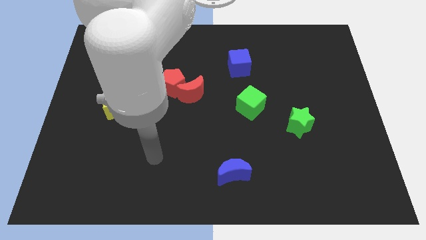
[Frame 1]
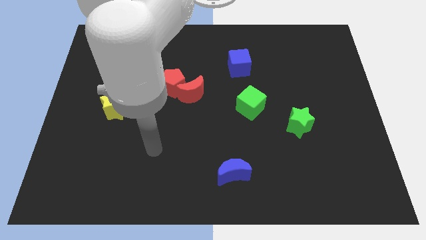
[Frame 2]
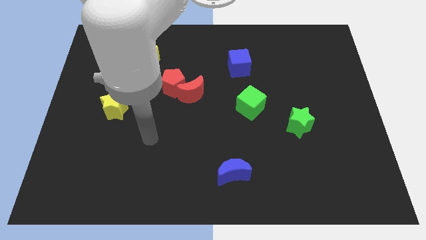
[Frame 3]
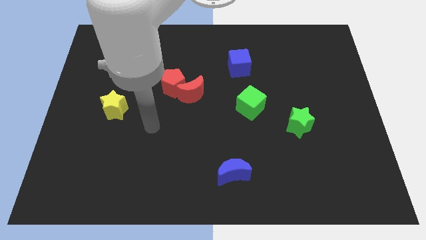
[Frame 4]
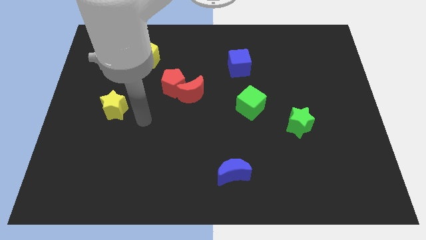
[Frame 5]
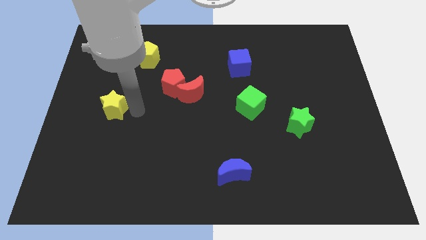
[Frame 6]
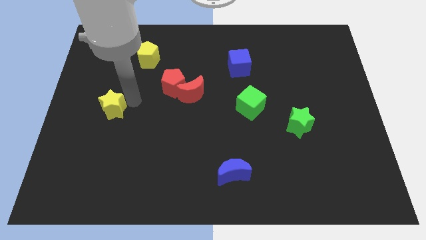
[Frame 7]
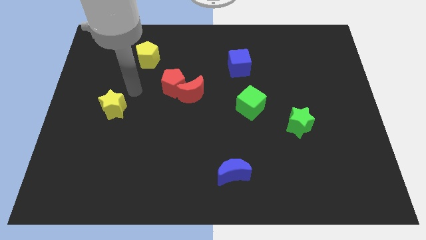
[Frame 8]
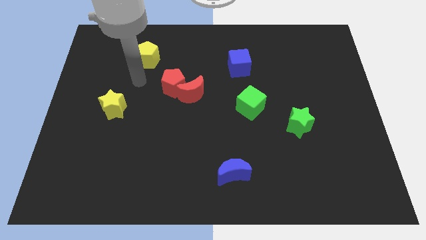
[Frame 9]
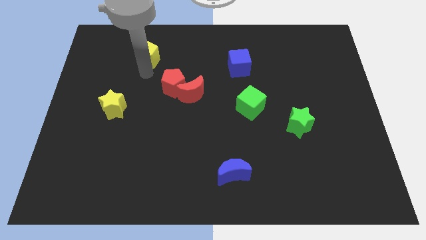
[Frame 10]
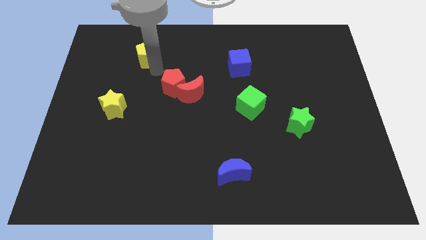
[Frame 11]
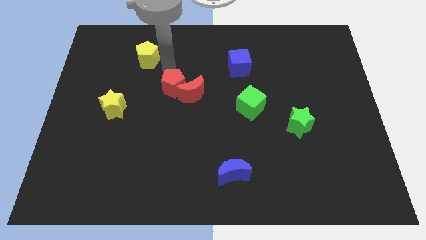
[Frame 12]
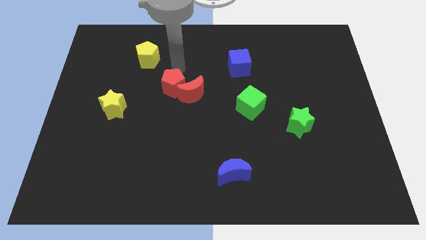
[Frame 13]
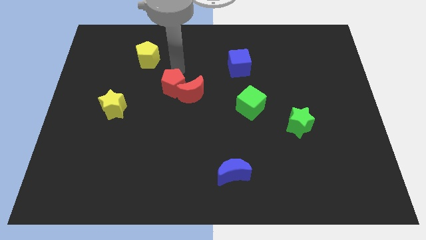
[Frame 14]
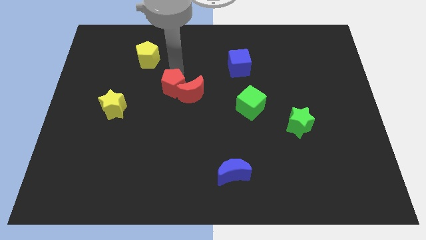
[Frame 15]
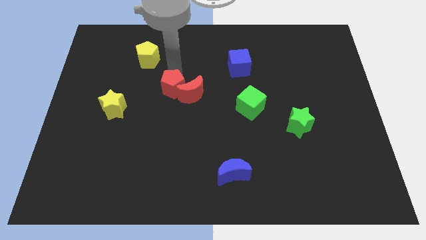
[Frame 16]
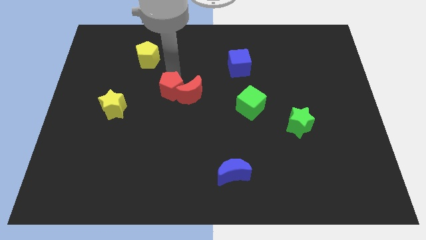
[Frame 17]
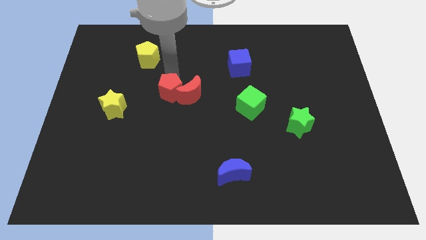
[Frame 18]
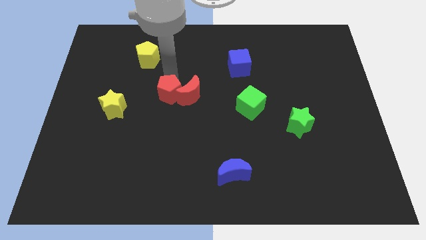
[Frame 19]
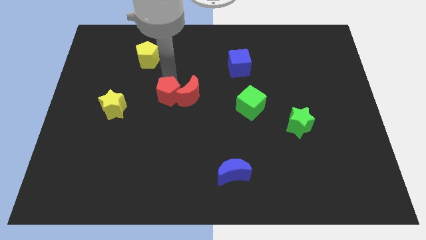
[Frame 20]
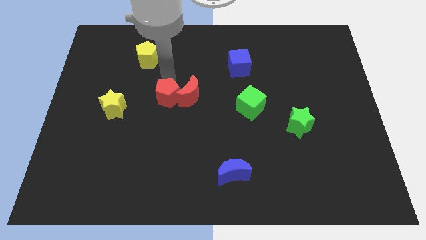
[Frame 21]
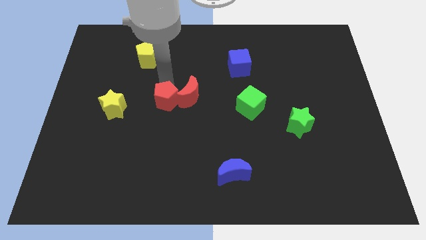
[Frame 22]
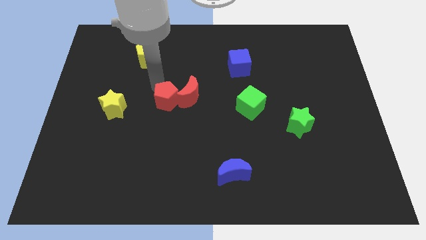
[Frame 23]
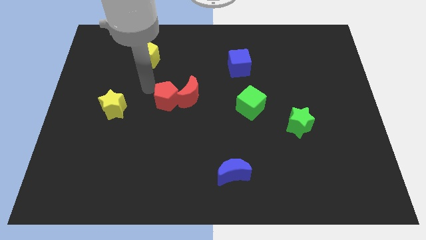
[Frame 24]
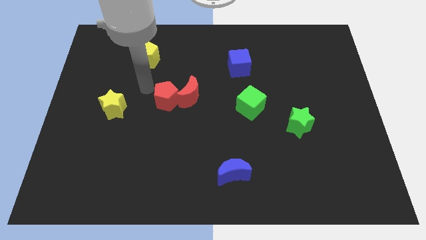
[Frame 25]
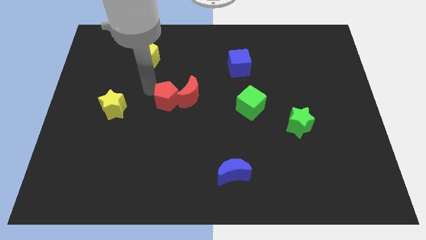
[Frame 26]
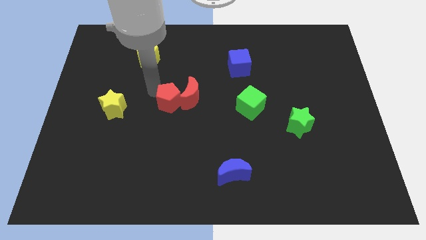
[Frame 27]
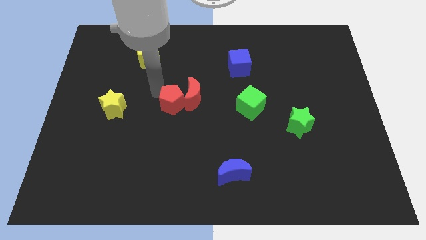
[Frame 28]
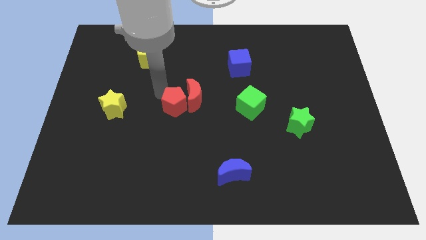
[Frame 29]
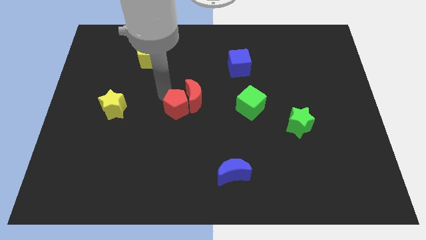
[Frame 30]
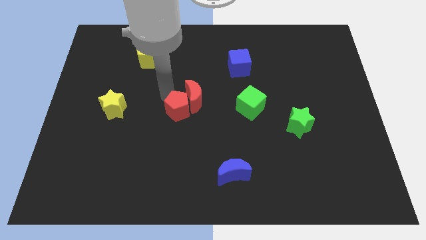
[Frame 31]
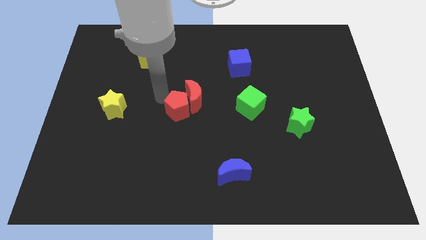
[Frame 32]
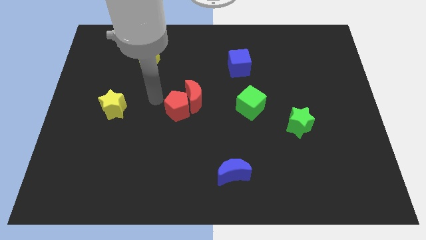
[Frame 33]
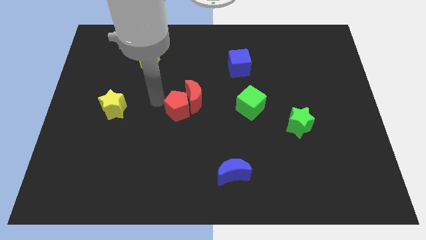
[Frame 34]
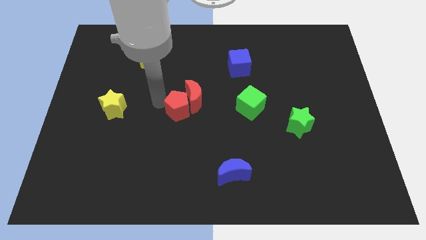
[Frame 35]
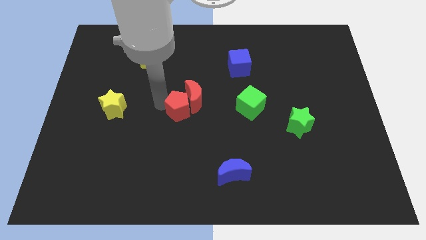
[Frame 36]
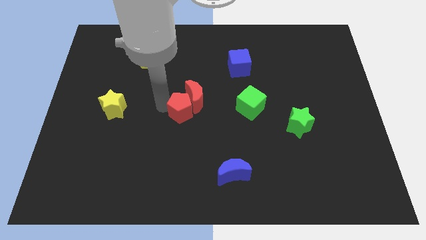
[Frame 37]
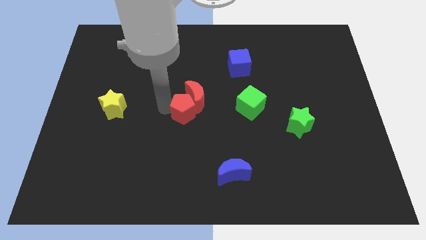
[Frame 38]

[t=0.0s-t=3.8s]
push the red pentagon down and then right a little

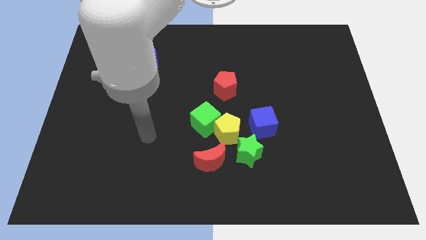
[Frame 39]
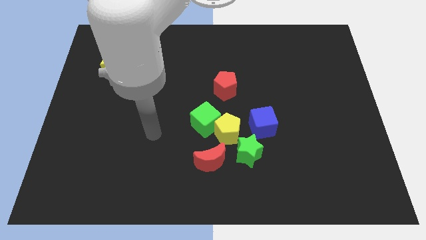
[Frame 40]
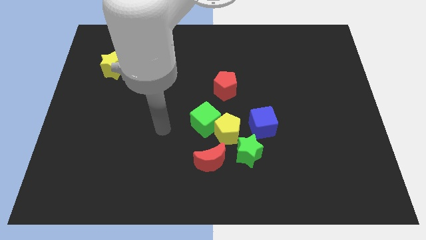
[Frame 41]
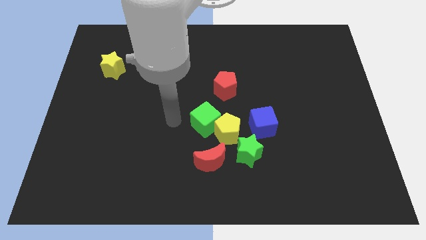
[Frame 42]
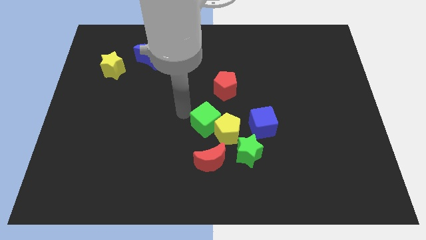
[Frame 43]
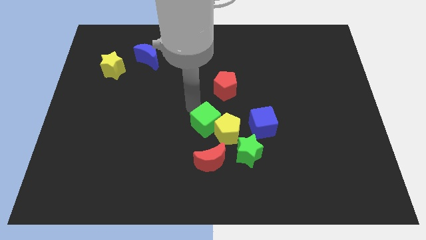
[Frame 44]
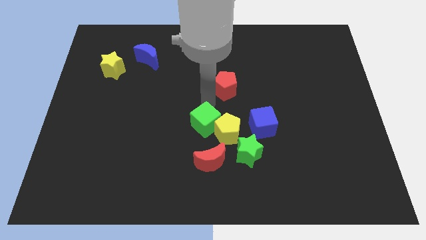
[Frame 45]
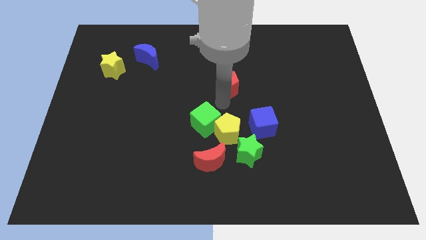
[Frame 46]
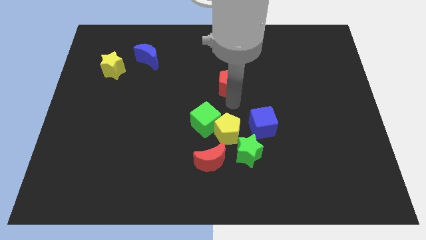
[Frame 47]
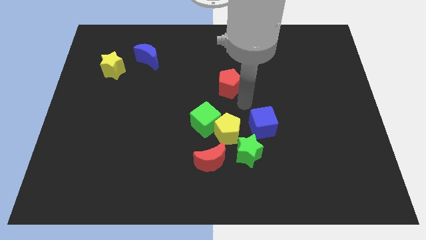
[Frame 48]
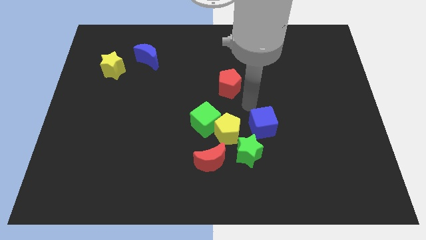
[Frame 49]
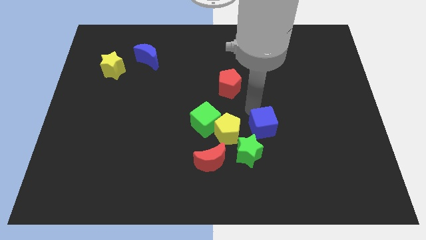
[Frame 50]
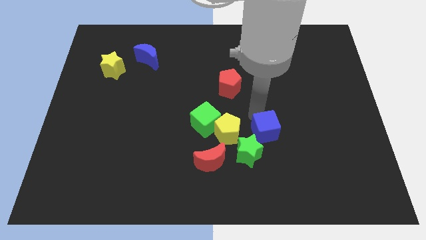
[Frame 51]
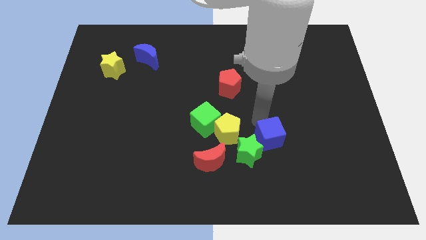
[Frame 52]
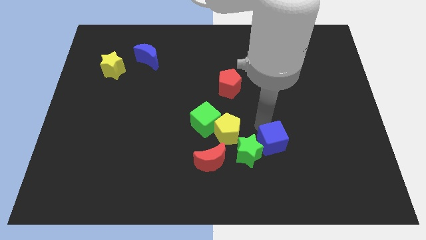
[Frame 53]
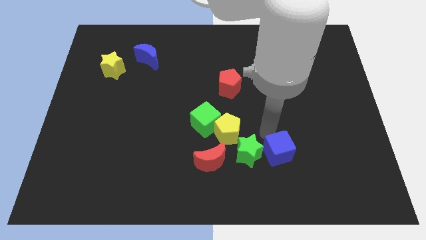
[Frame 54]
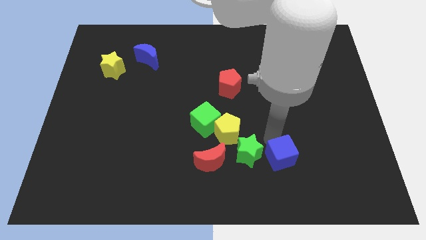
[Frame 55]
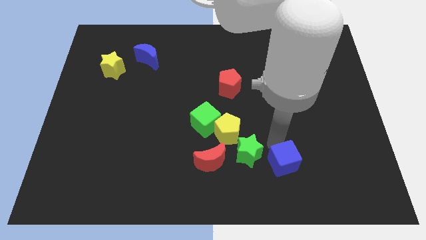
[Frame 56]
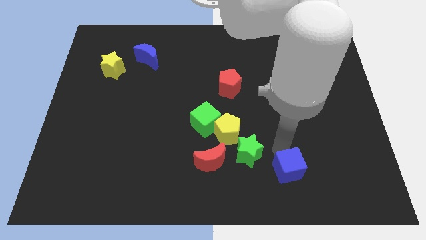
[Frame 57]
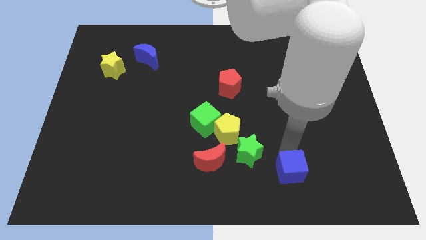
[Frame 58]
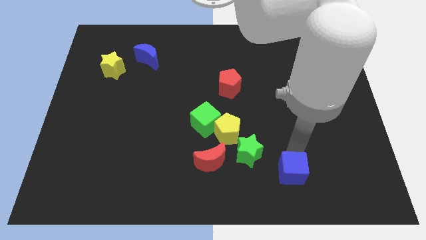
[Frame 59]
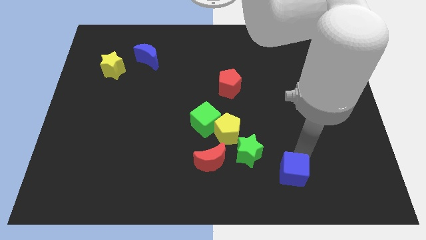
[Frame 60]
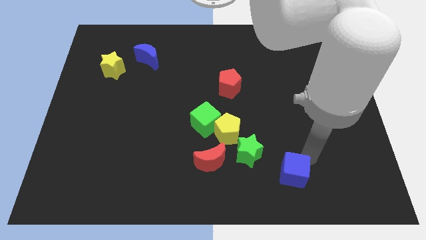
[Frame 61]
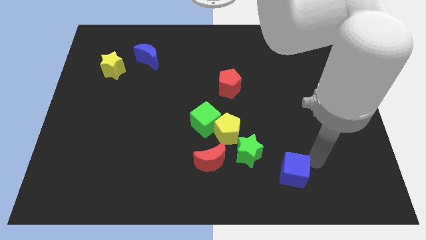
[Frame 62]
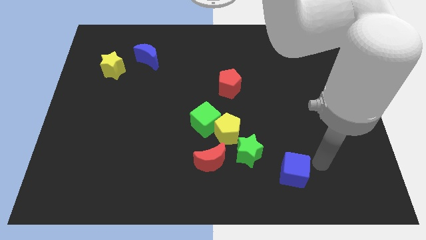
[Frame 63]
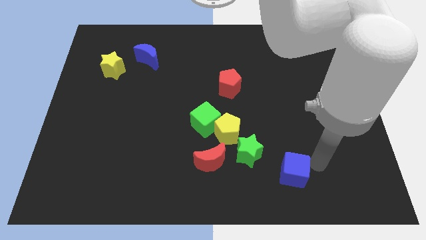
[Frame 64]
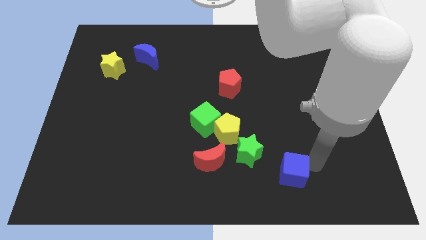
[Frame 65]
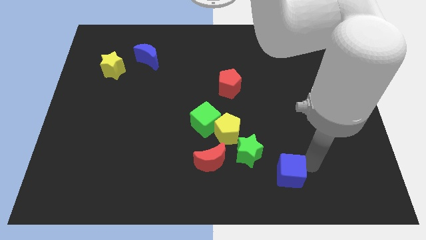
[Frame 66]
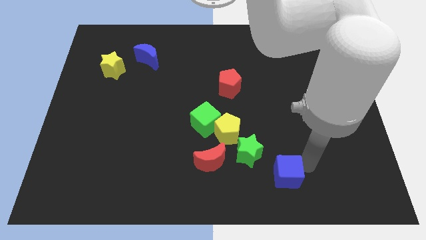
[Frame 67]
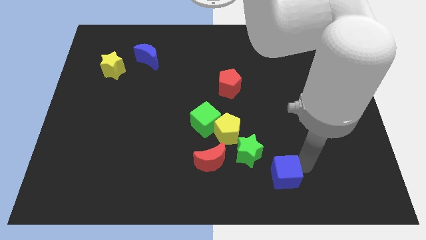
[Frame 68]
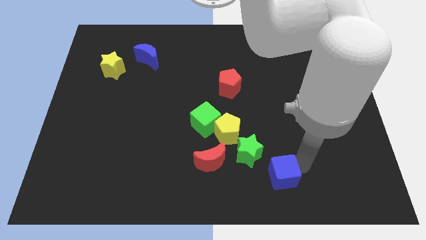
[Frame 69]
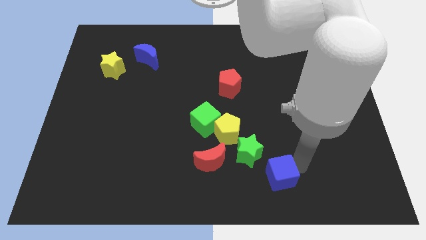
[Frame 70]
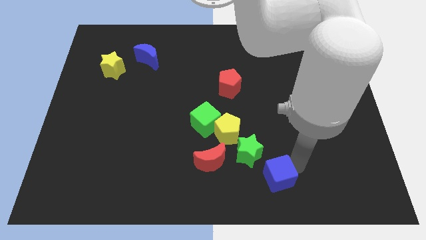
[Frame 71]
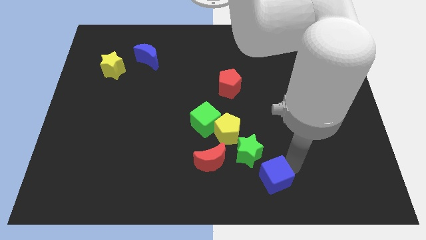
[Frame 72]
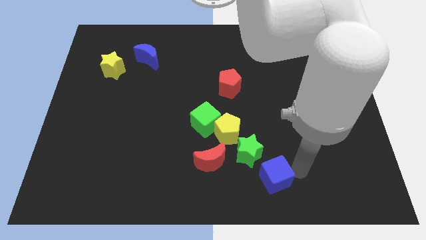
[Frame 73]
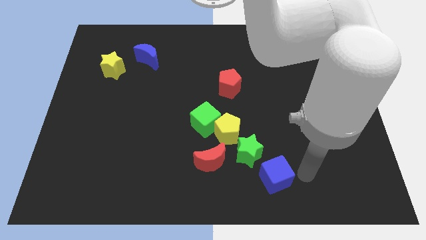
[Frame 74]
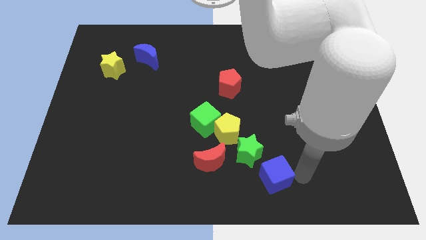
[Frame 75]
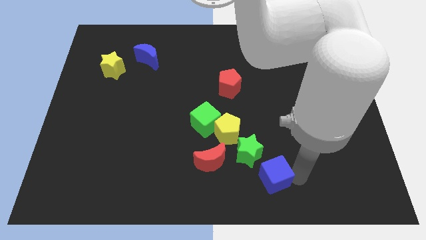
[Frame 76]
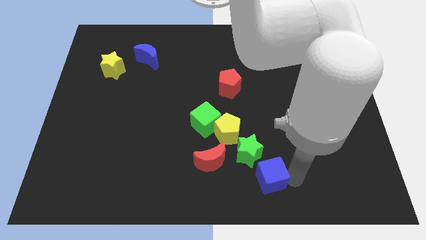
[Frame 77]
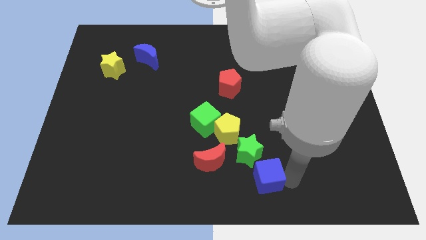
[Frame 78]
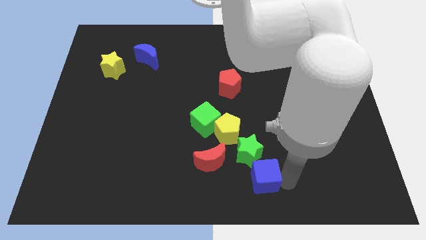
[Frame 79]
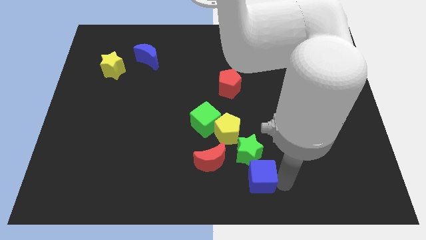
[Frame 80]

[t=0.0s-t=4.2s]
slightly slide the blue cube downwards and to the left
